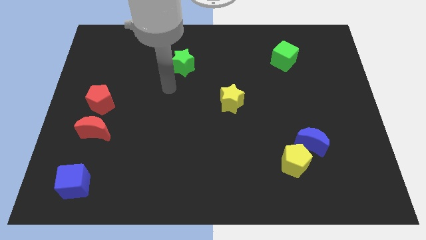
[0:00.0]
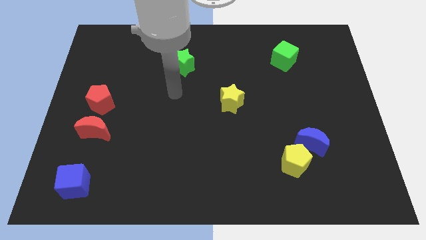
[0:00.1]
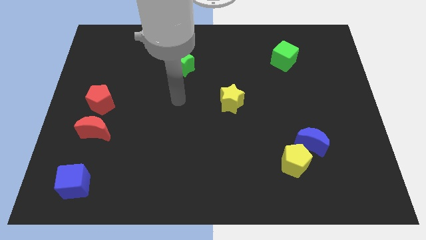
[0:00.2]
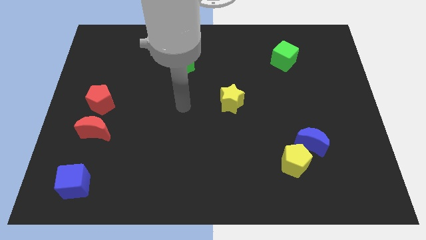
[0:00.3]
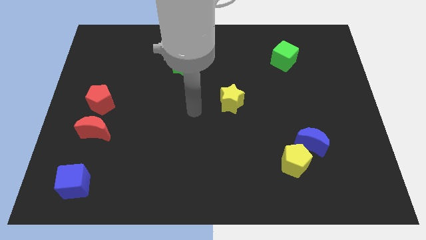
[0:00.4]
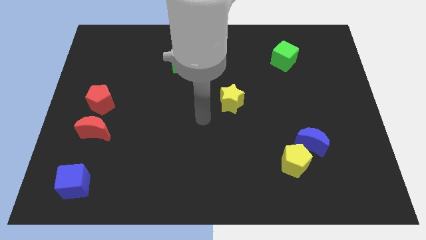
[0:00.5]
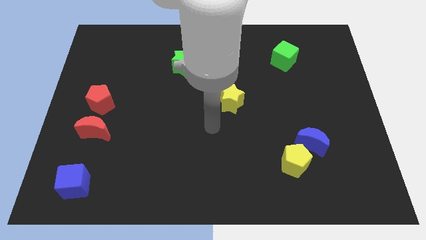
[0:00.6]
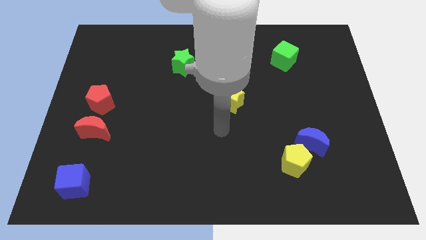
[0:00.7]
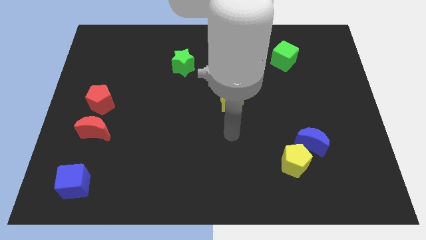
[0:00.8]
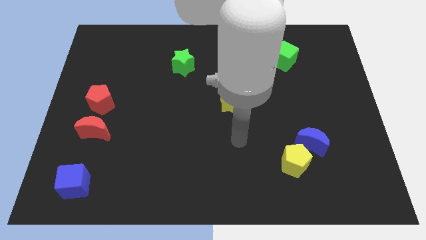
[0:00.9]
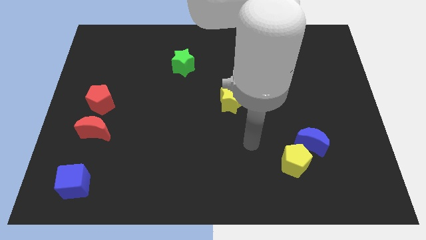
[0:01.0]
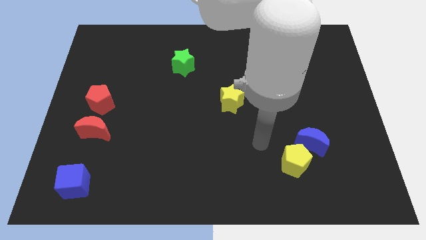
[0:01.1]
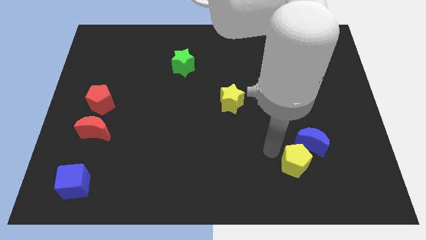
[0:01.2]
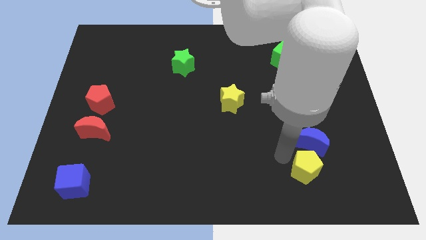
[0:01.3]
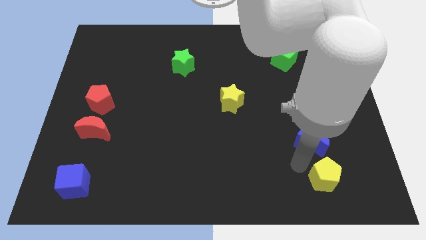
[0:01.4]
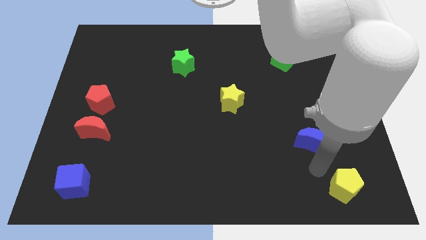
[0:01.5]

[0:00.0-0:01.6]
pull the blue moon apart from the yellow pentagon

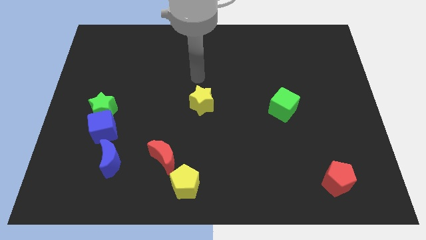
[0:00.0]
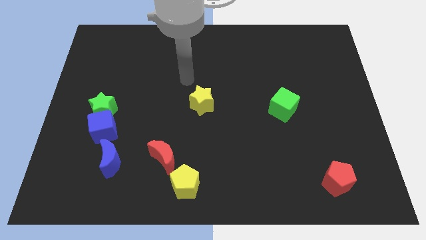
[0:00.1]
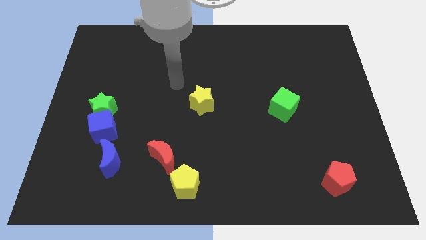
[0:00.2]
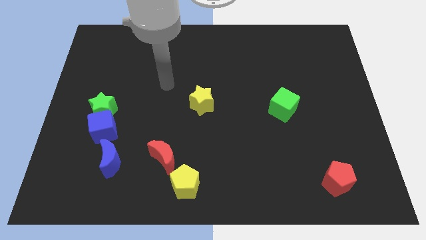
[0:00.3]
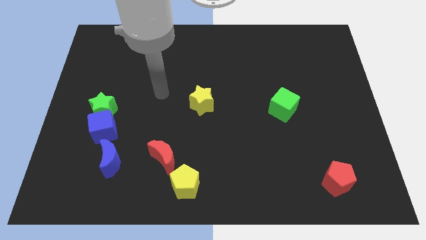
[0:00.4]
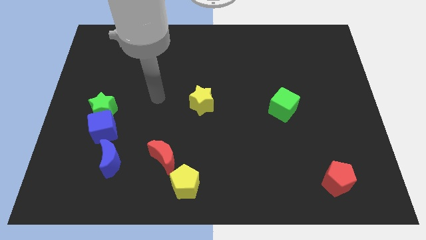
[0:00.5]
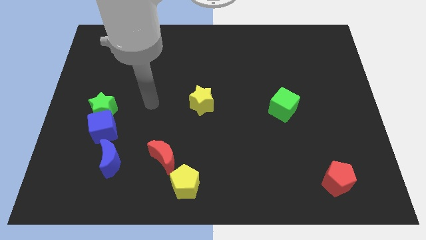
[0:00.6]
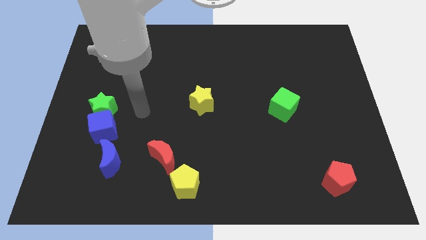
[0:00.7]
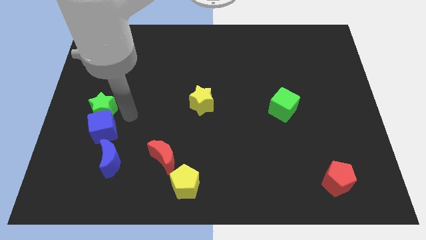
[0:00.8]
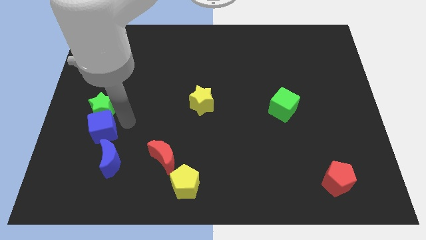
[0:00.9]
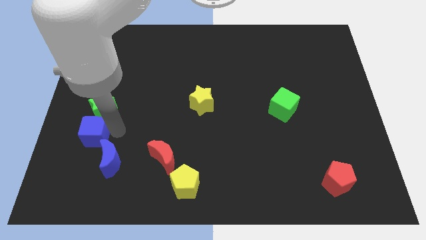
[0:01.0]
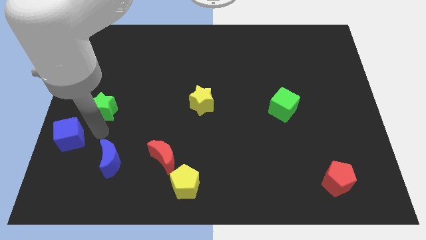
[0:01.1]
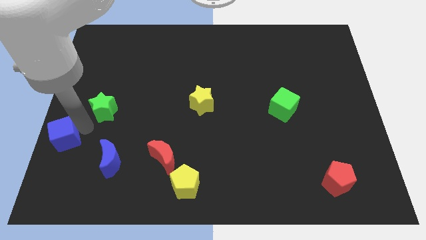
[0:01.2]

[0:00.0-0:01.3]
separate the green star from the blue cube

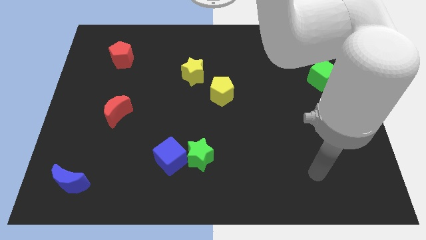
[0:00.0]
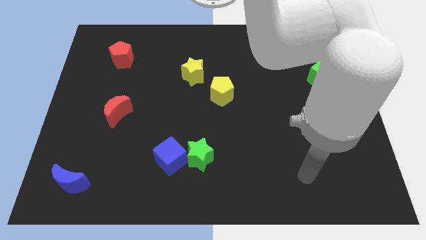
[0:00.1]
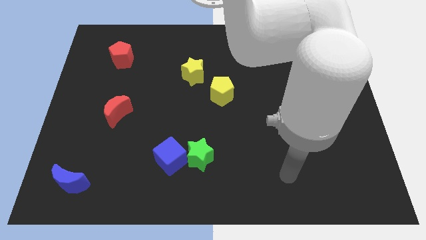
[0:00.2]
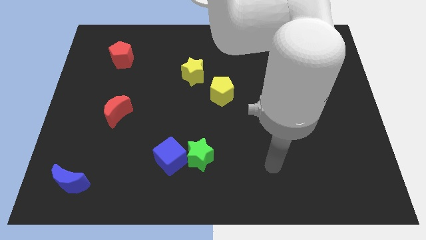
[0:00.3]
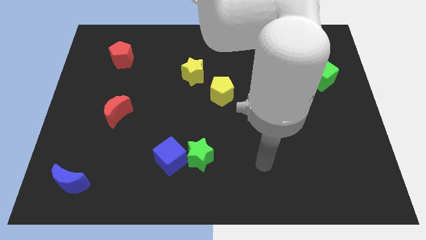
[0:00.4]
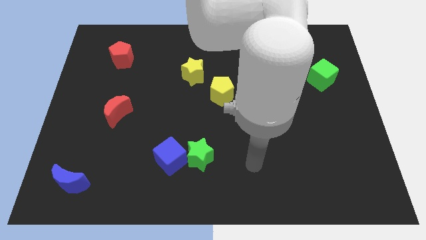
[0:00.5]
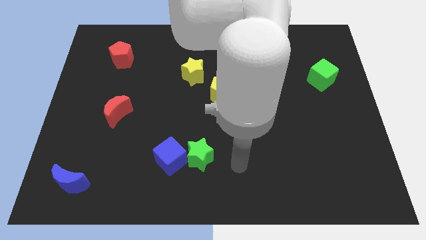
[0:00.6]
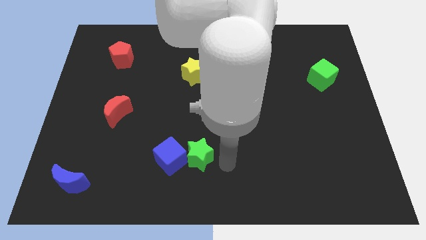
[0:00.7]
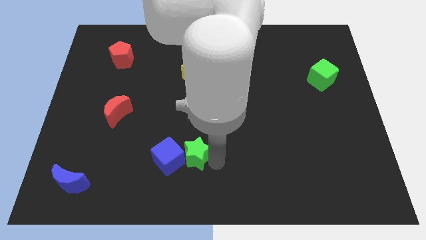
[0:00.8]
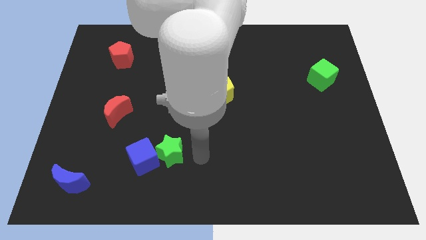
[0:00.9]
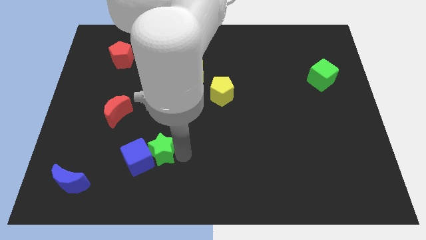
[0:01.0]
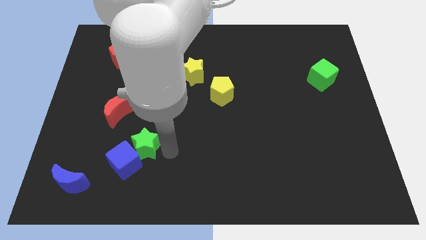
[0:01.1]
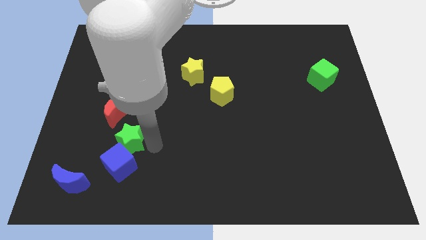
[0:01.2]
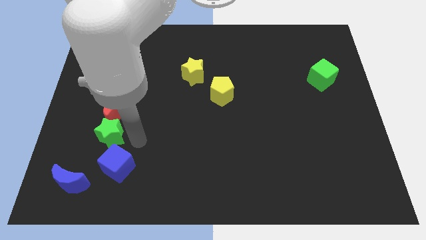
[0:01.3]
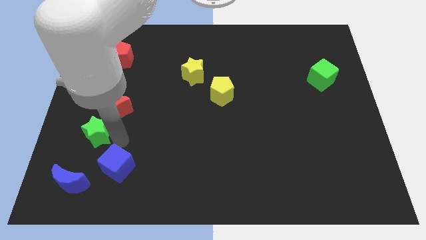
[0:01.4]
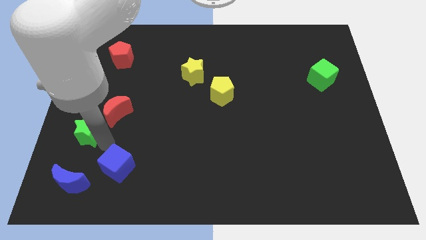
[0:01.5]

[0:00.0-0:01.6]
separate the blue cube from the green star

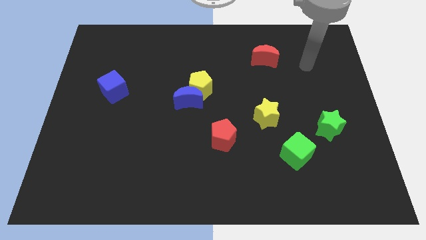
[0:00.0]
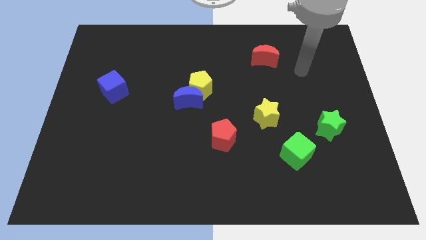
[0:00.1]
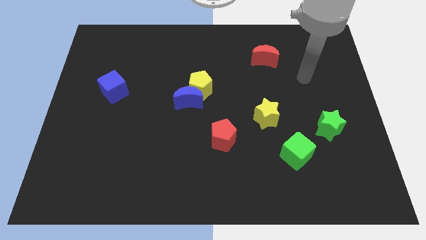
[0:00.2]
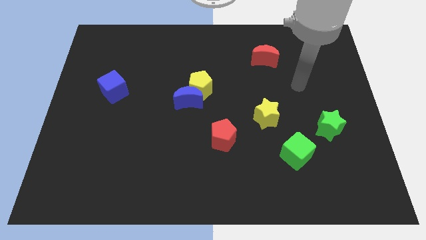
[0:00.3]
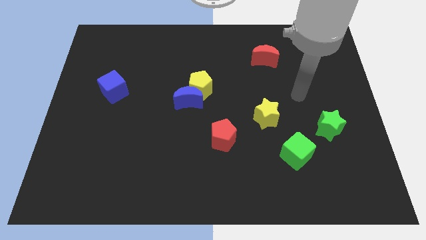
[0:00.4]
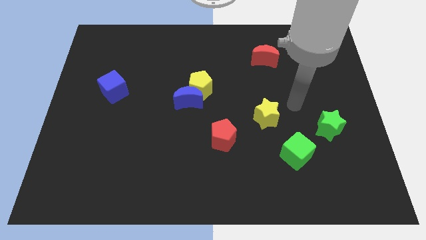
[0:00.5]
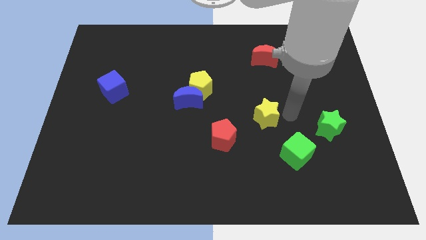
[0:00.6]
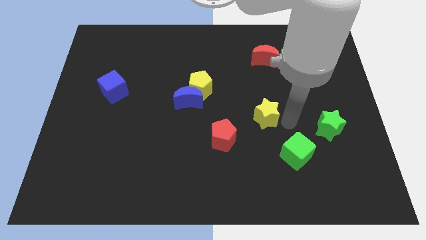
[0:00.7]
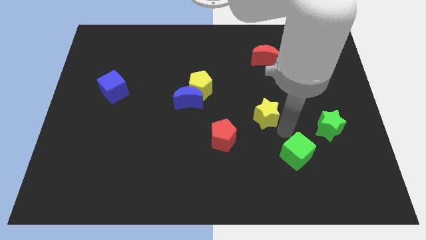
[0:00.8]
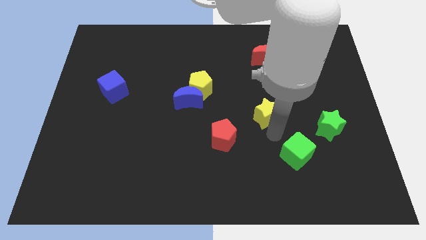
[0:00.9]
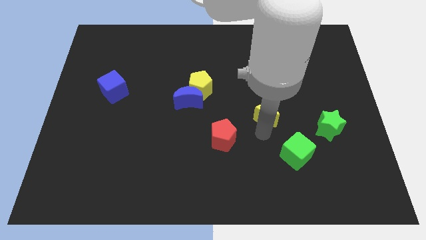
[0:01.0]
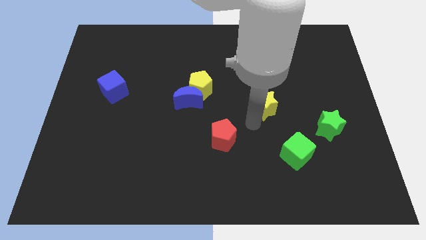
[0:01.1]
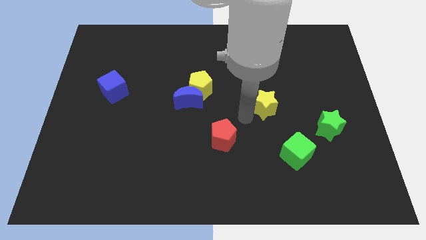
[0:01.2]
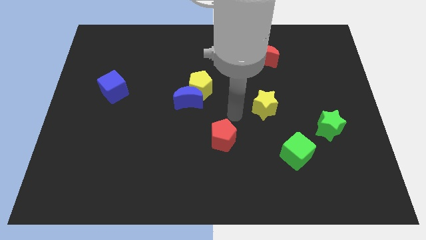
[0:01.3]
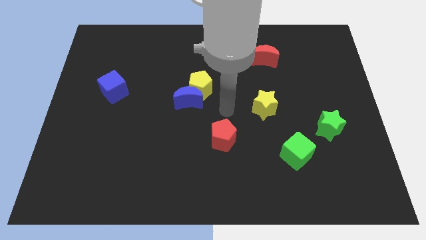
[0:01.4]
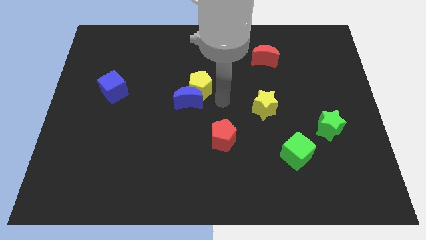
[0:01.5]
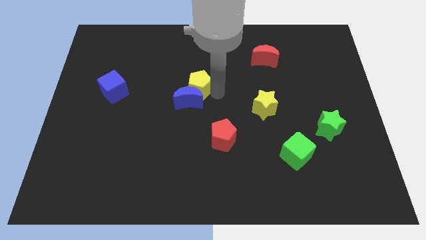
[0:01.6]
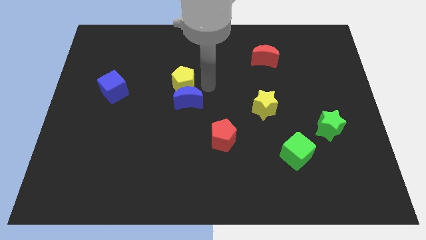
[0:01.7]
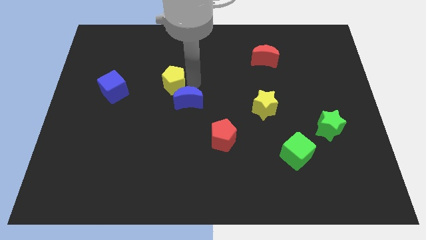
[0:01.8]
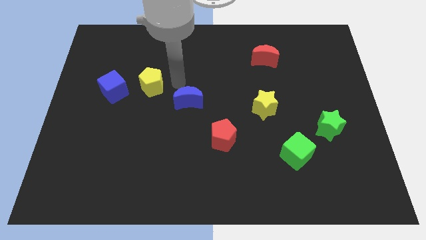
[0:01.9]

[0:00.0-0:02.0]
separate the blue moon from the yellow pentagon

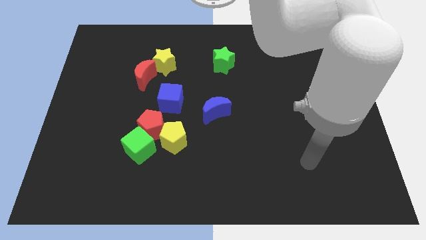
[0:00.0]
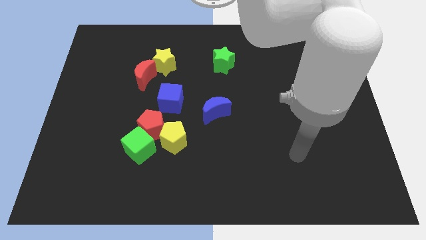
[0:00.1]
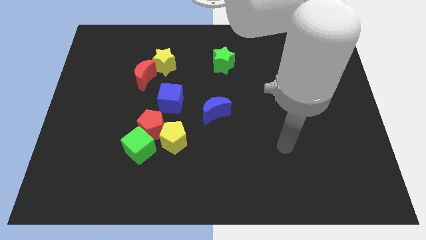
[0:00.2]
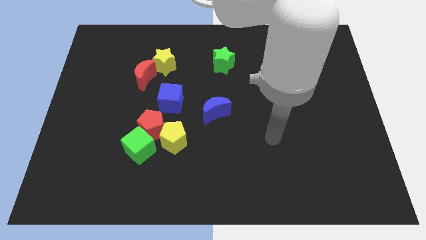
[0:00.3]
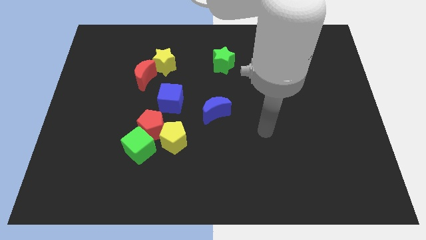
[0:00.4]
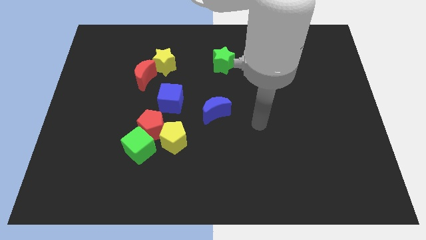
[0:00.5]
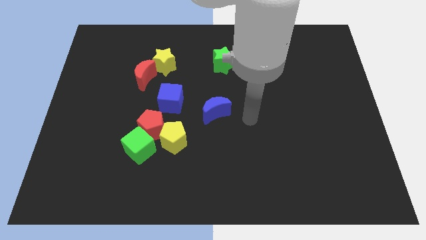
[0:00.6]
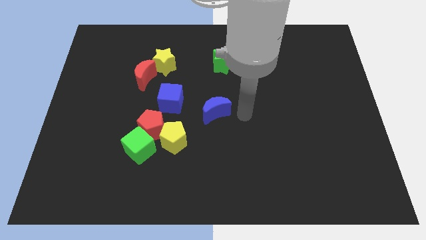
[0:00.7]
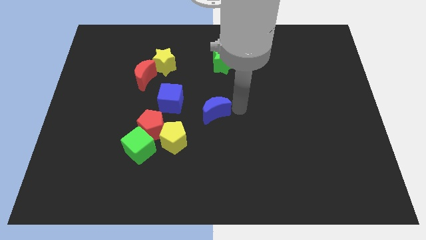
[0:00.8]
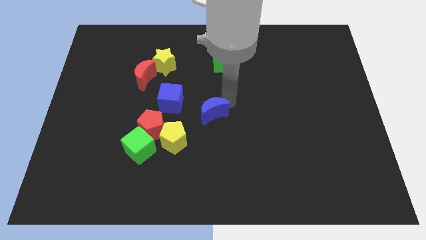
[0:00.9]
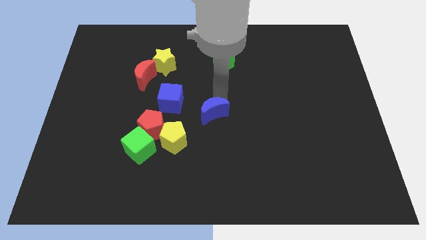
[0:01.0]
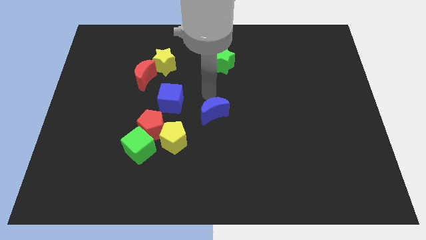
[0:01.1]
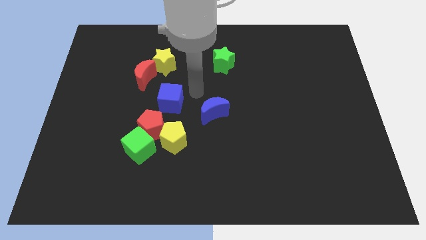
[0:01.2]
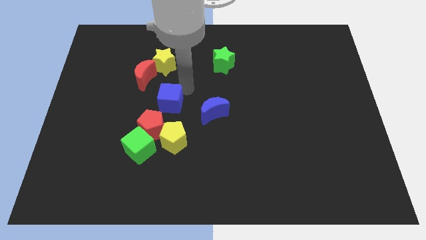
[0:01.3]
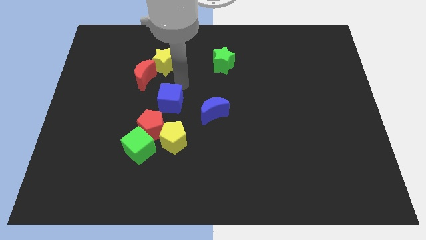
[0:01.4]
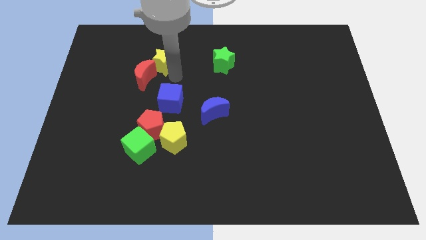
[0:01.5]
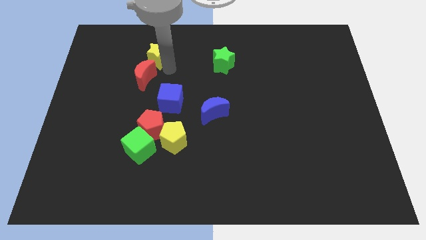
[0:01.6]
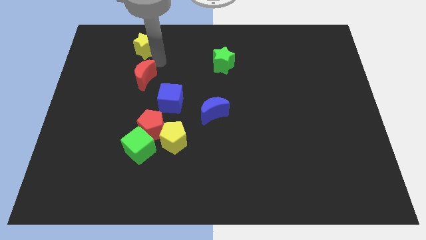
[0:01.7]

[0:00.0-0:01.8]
pull the red moon apart from the yellow star

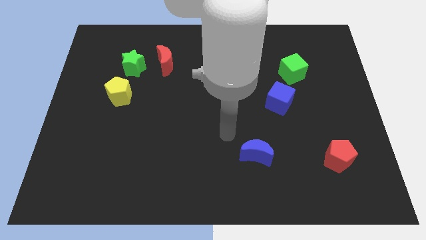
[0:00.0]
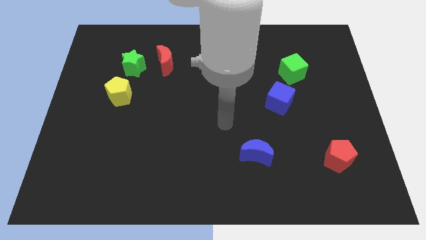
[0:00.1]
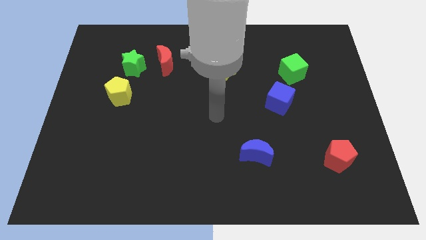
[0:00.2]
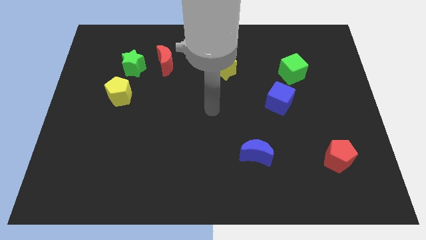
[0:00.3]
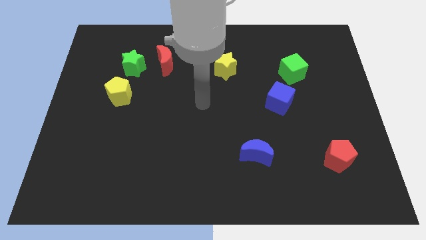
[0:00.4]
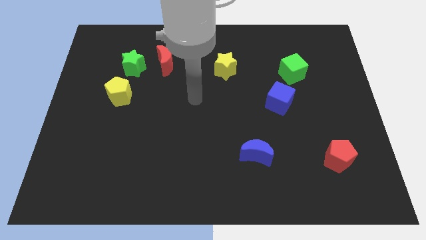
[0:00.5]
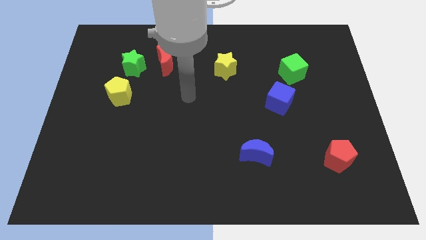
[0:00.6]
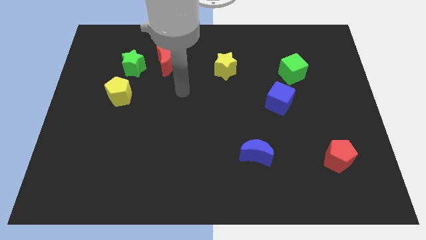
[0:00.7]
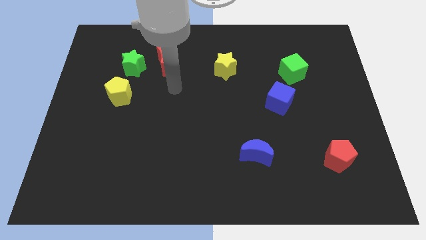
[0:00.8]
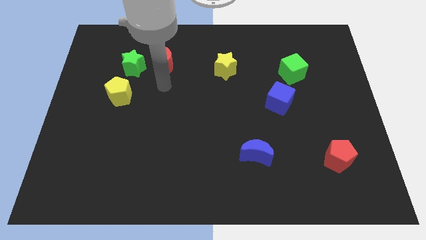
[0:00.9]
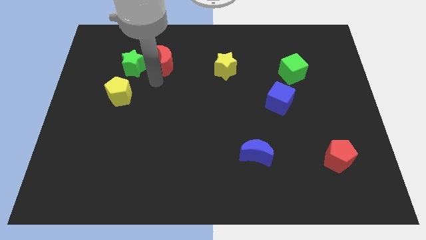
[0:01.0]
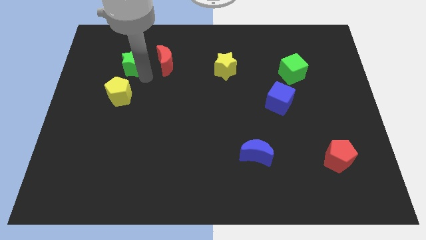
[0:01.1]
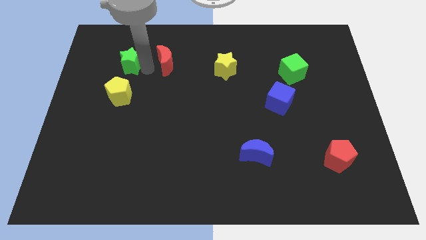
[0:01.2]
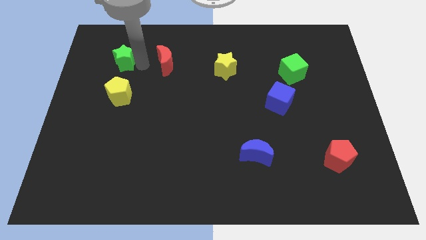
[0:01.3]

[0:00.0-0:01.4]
move the red moon away from the green star
